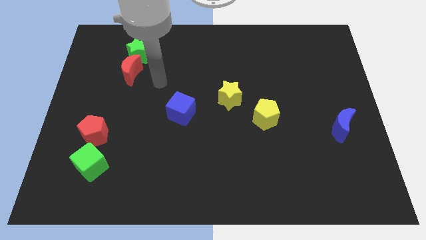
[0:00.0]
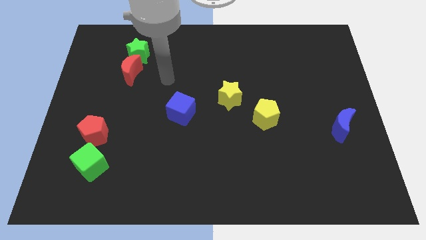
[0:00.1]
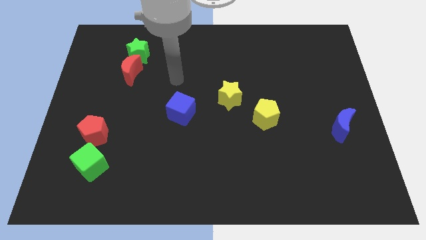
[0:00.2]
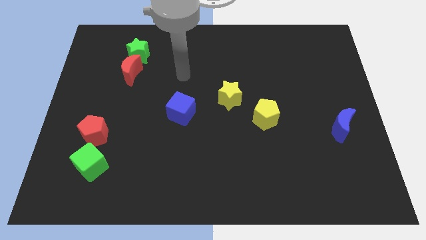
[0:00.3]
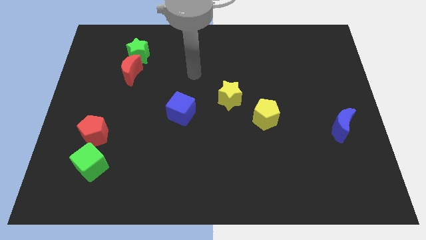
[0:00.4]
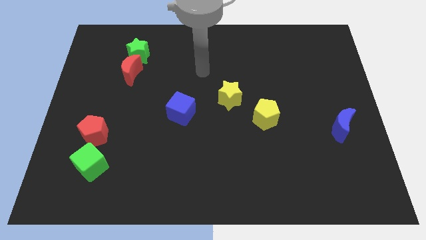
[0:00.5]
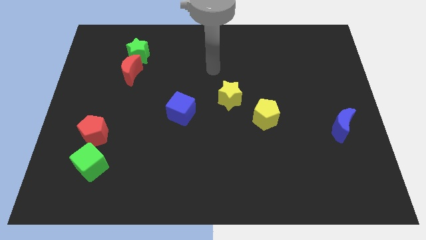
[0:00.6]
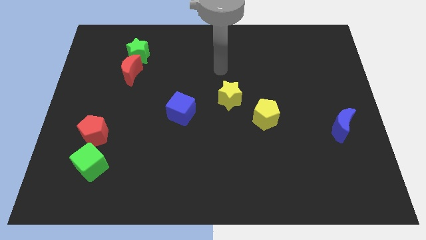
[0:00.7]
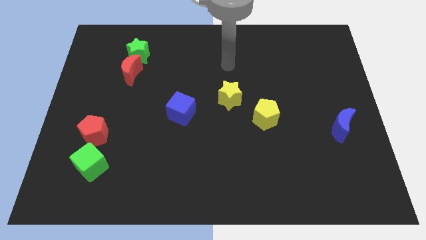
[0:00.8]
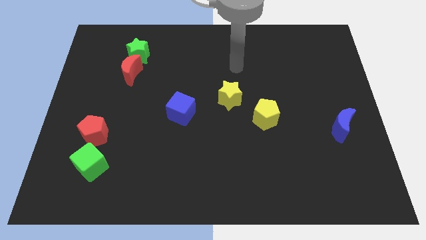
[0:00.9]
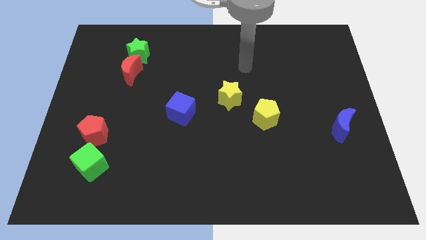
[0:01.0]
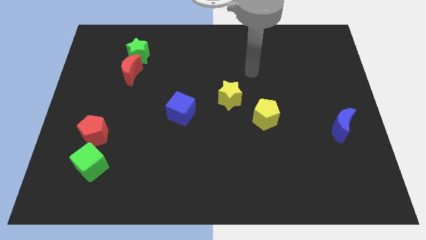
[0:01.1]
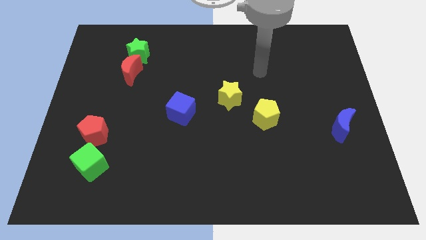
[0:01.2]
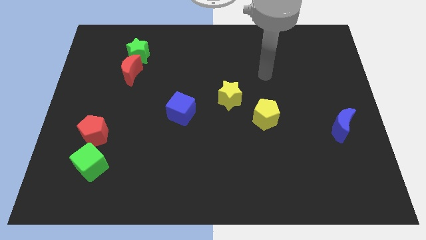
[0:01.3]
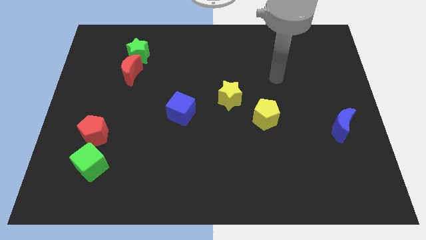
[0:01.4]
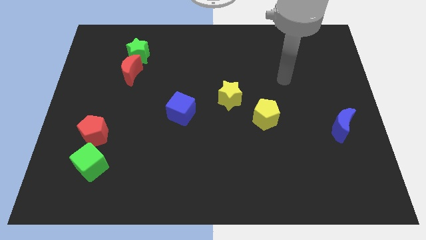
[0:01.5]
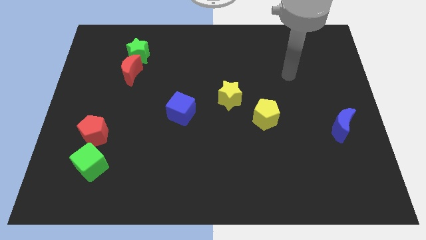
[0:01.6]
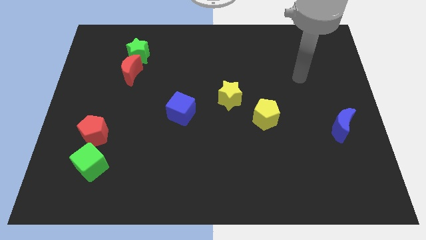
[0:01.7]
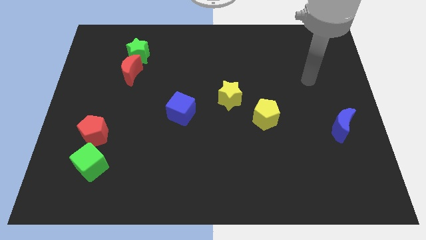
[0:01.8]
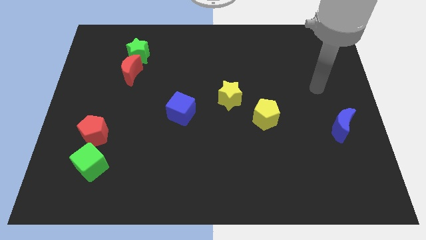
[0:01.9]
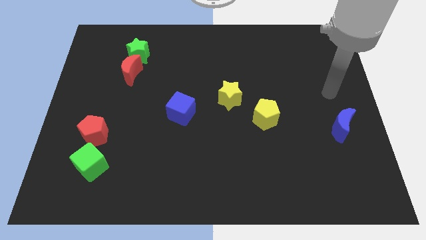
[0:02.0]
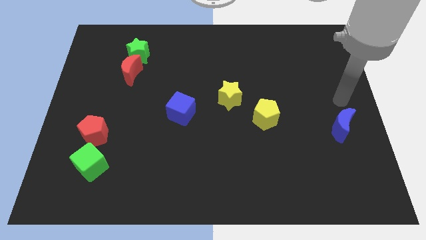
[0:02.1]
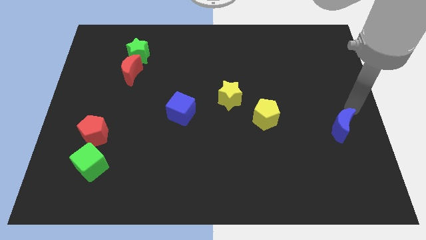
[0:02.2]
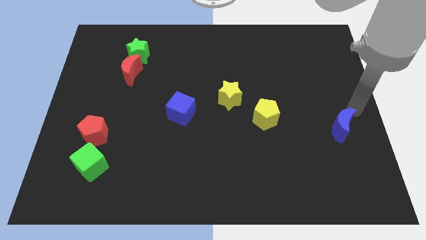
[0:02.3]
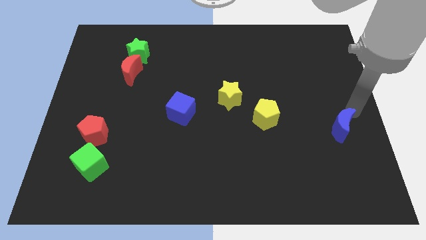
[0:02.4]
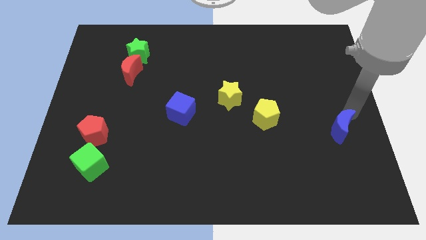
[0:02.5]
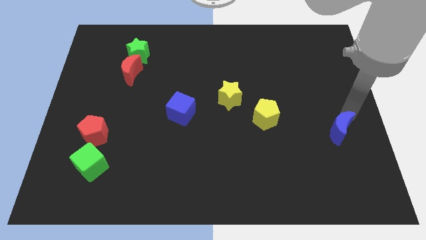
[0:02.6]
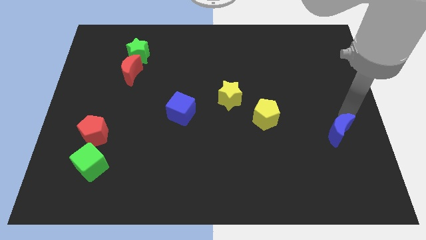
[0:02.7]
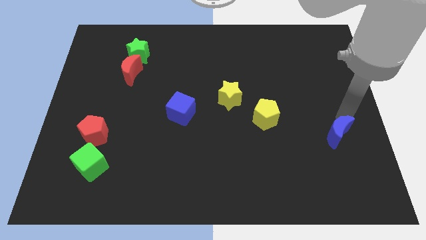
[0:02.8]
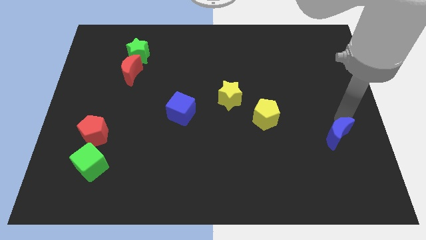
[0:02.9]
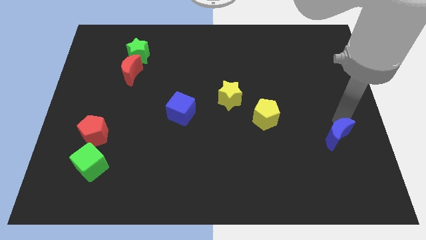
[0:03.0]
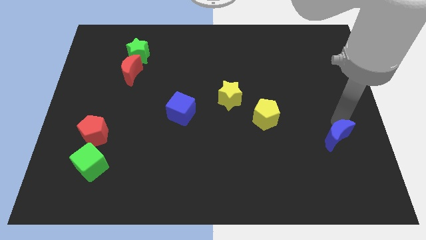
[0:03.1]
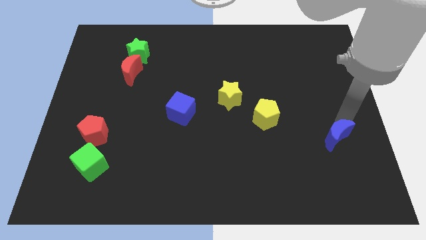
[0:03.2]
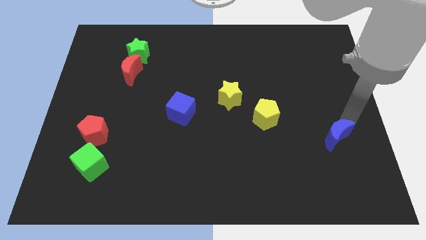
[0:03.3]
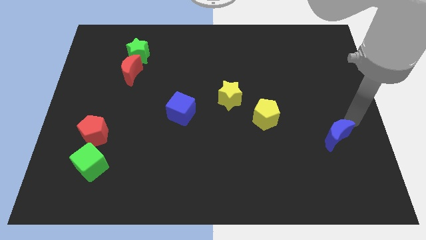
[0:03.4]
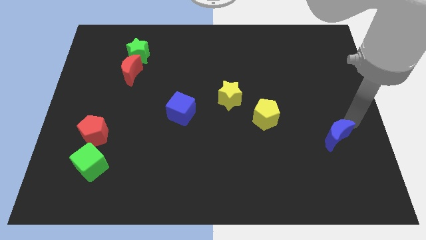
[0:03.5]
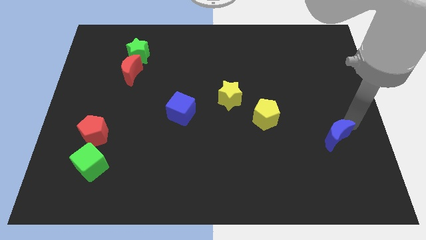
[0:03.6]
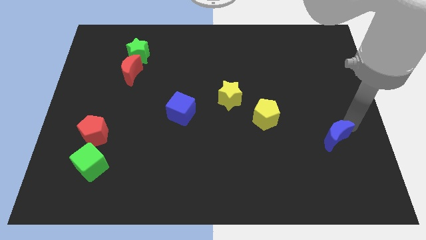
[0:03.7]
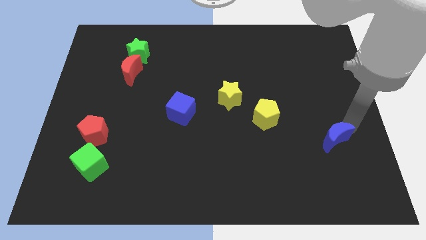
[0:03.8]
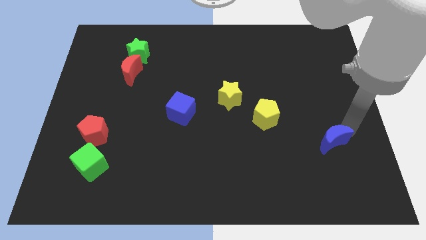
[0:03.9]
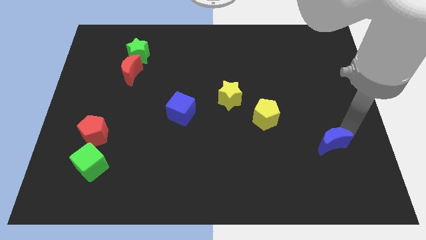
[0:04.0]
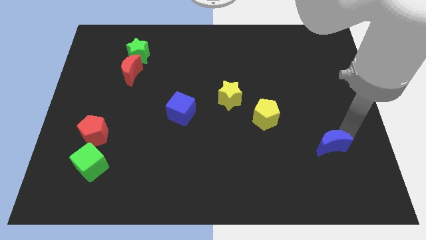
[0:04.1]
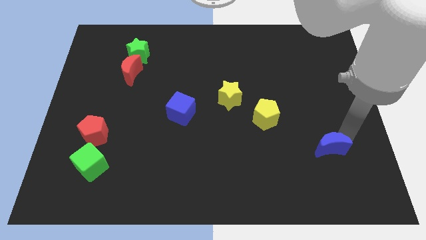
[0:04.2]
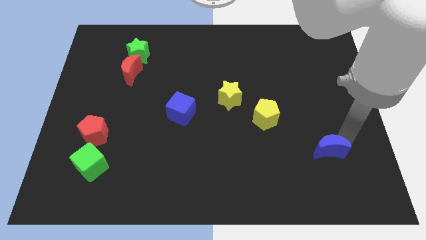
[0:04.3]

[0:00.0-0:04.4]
slide the blue moon a little downwards and left

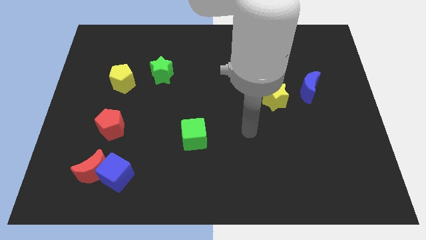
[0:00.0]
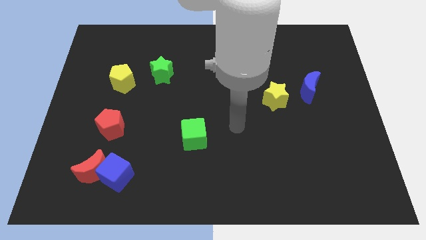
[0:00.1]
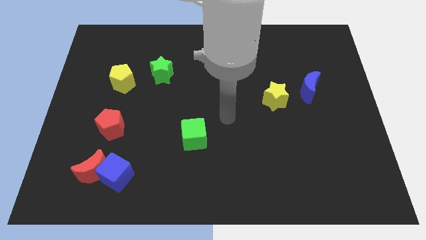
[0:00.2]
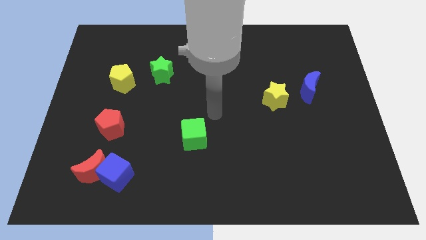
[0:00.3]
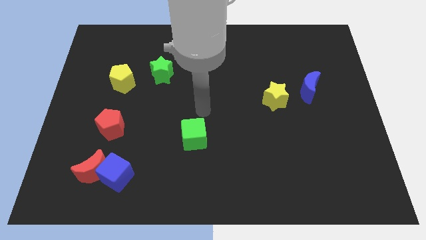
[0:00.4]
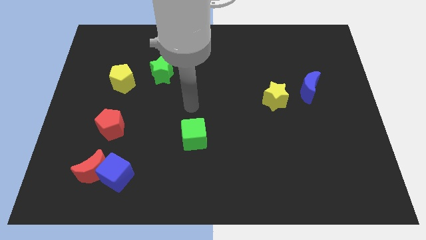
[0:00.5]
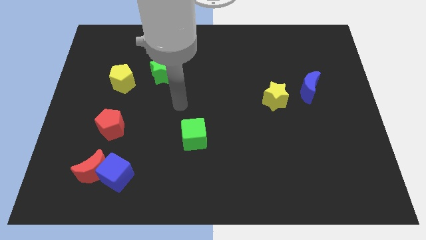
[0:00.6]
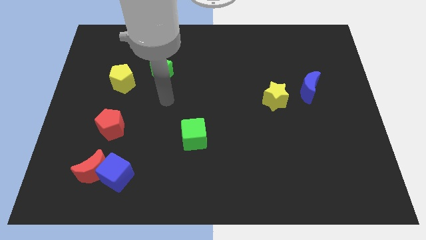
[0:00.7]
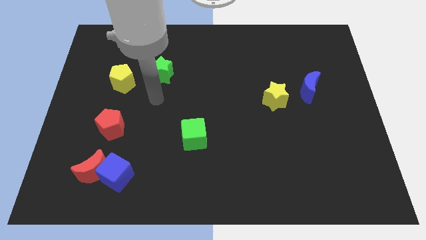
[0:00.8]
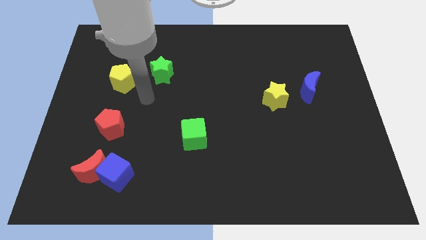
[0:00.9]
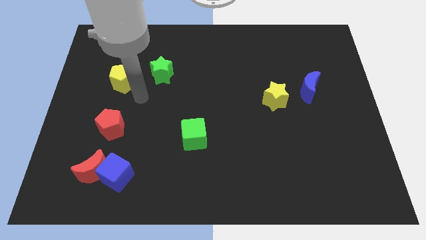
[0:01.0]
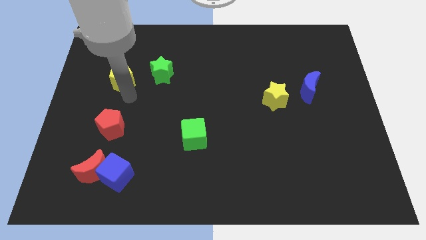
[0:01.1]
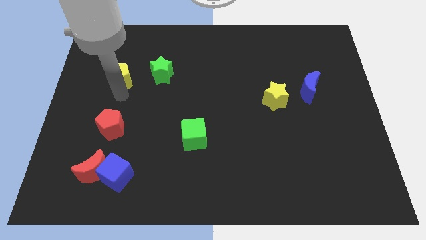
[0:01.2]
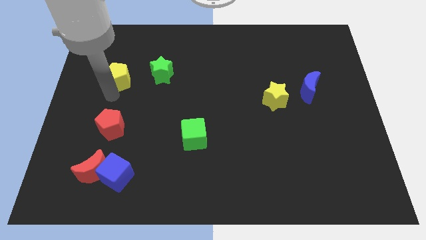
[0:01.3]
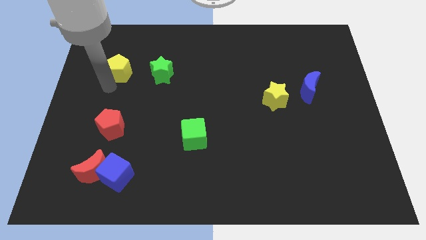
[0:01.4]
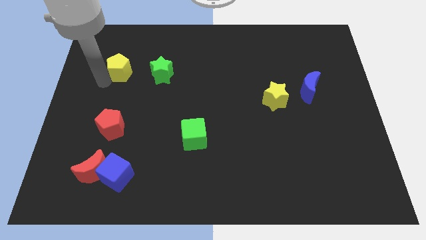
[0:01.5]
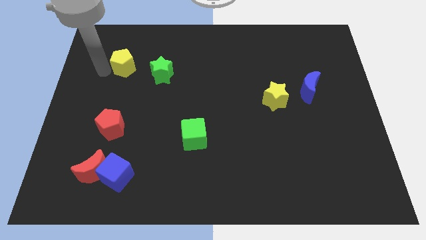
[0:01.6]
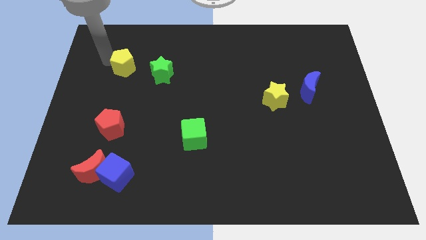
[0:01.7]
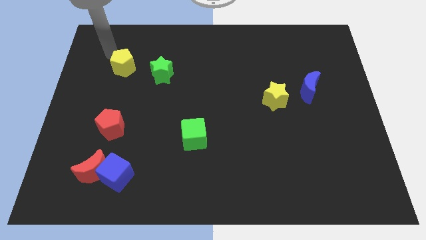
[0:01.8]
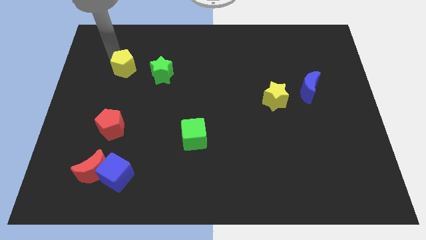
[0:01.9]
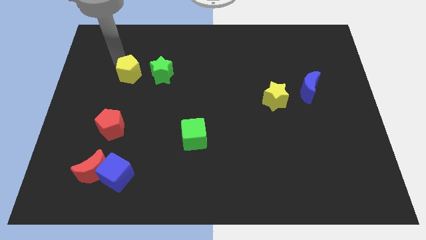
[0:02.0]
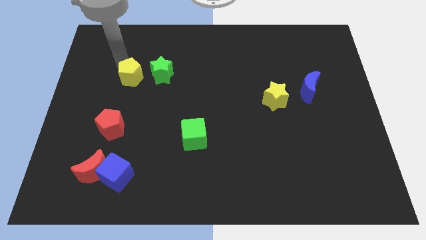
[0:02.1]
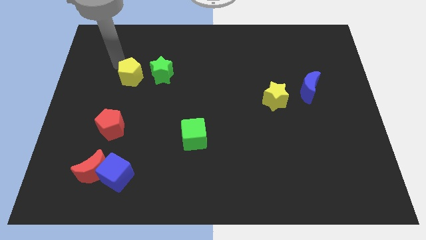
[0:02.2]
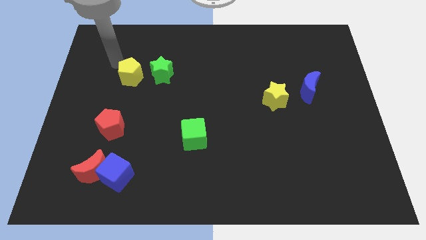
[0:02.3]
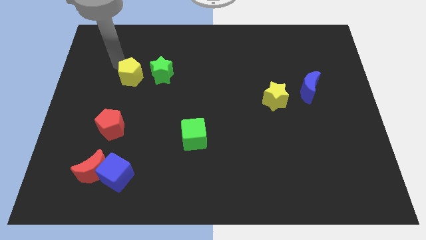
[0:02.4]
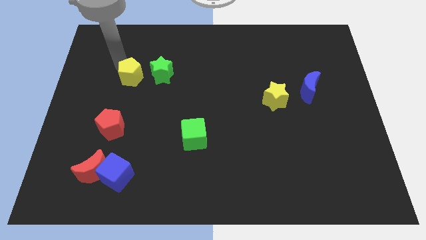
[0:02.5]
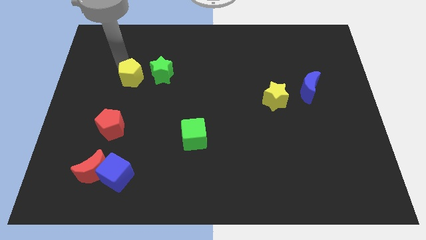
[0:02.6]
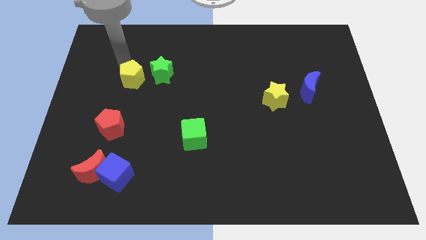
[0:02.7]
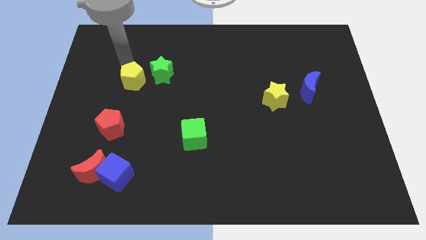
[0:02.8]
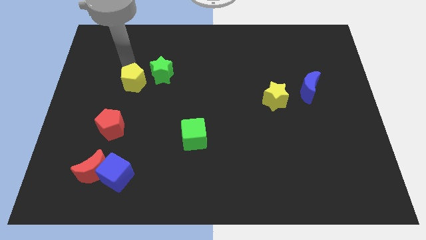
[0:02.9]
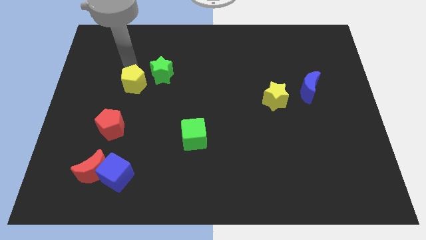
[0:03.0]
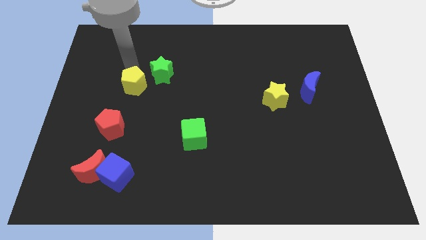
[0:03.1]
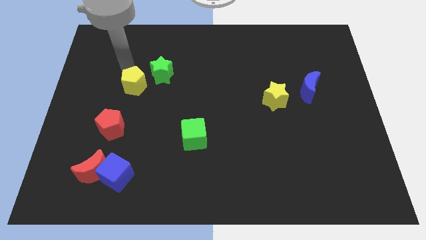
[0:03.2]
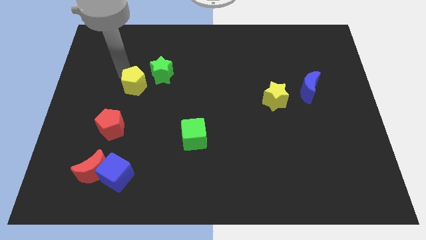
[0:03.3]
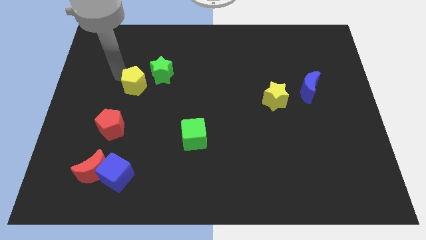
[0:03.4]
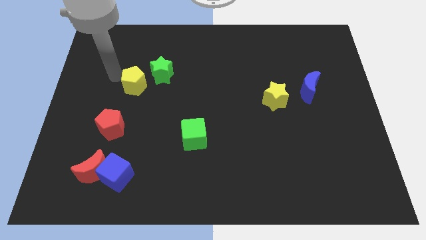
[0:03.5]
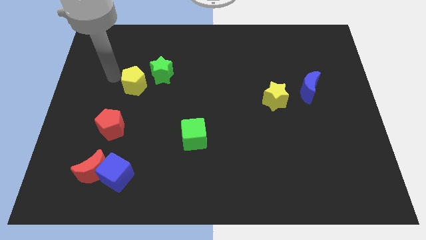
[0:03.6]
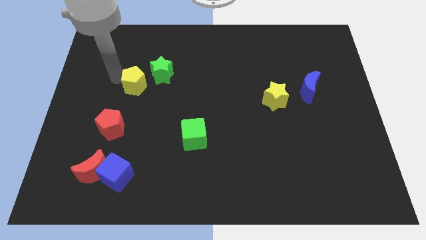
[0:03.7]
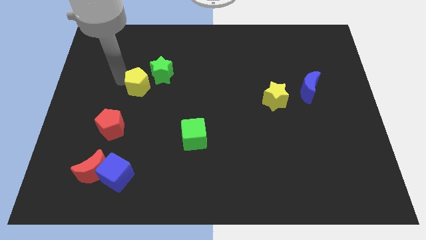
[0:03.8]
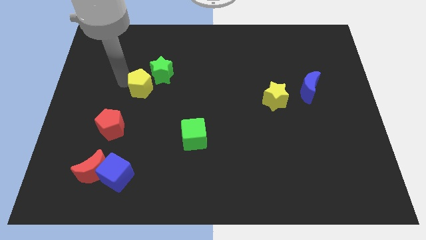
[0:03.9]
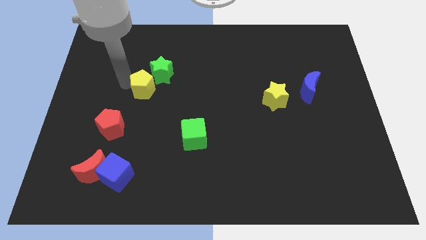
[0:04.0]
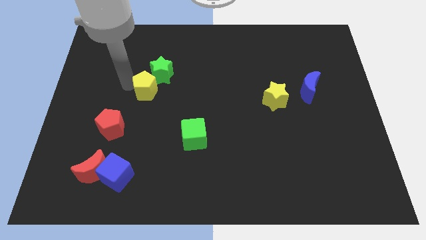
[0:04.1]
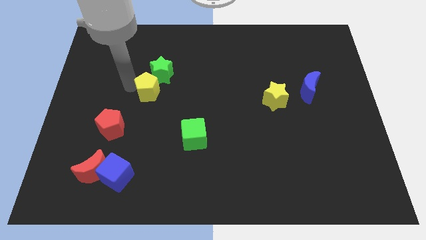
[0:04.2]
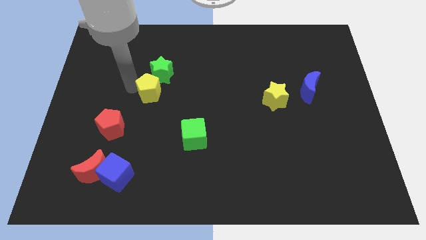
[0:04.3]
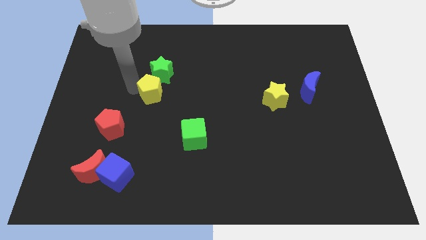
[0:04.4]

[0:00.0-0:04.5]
slightly move the yellow pentagon to the right
